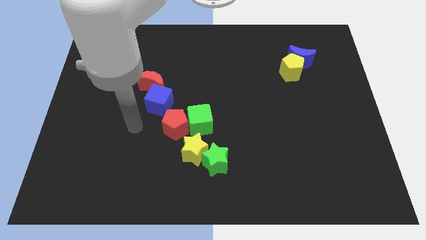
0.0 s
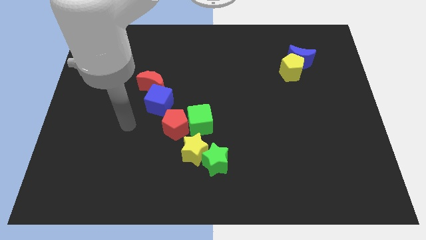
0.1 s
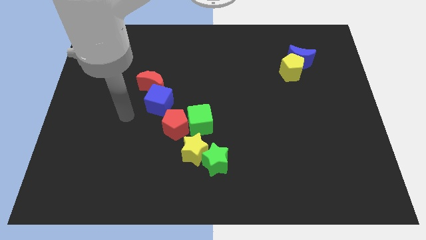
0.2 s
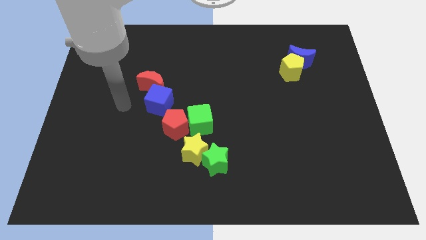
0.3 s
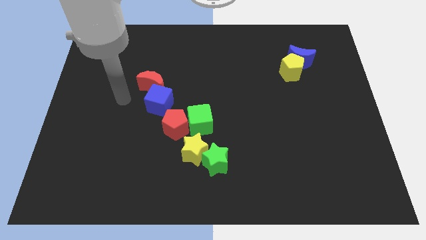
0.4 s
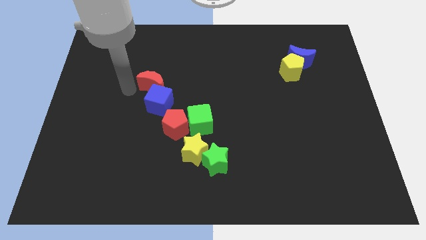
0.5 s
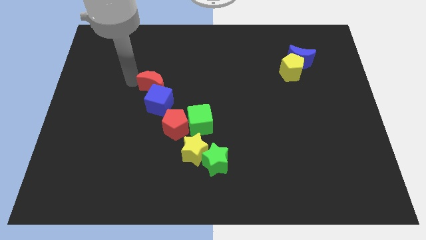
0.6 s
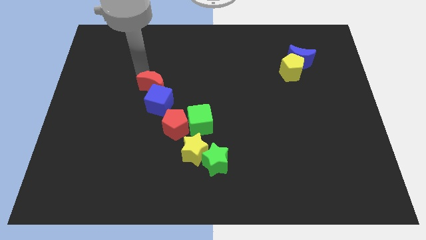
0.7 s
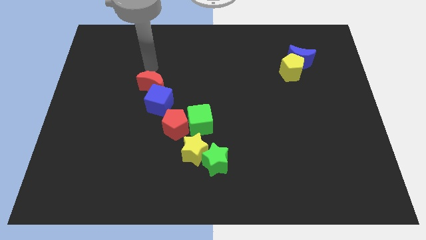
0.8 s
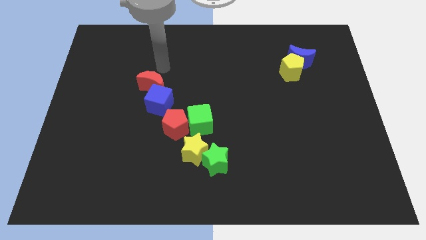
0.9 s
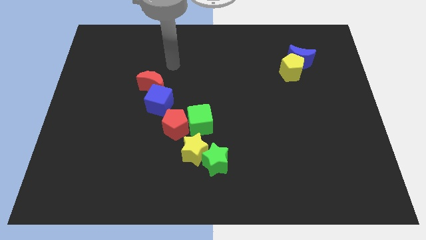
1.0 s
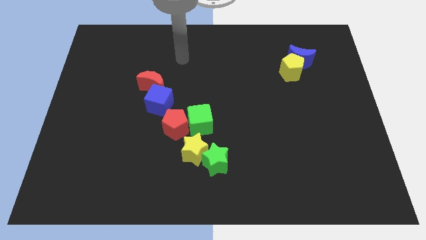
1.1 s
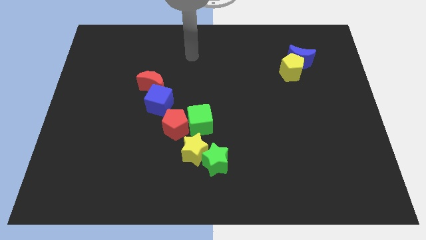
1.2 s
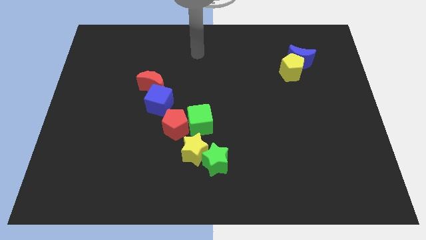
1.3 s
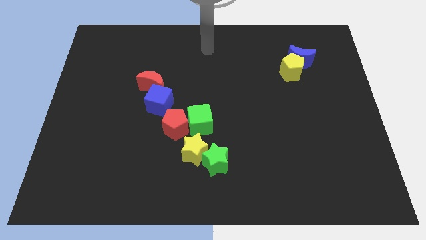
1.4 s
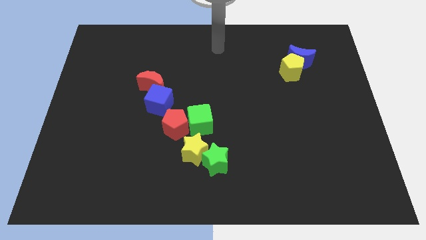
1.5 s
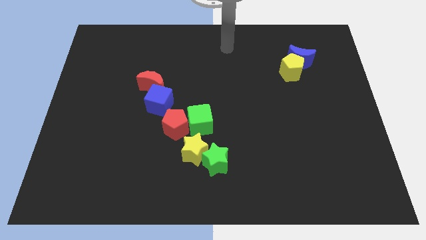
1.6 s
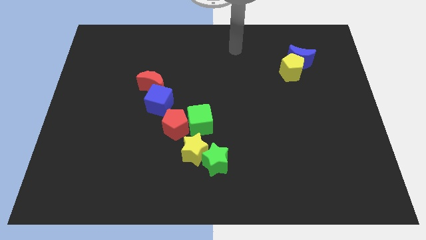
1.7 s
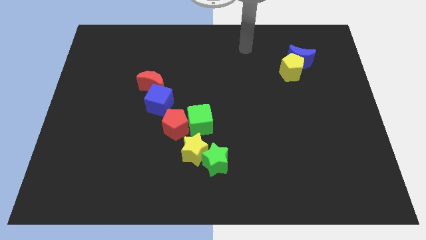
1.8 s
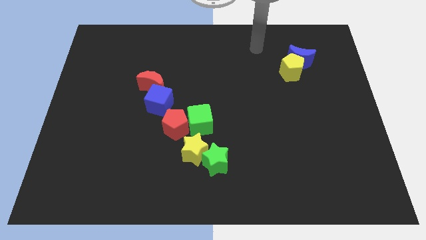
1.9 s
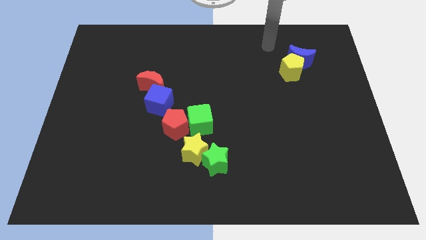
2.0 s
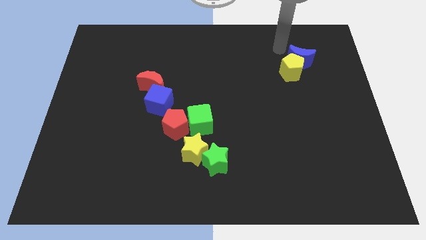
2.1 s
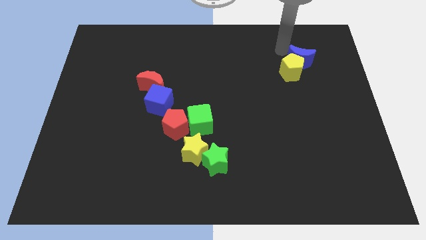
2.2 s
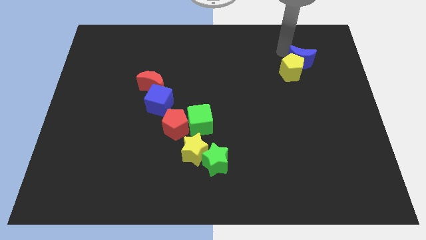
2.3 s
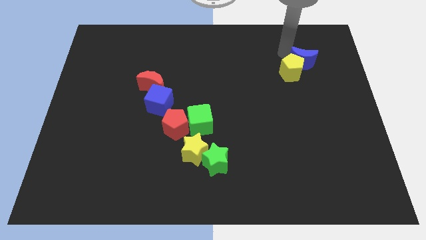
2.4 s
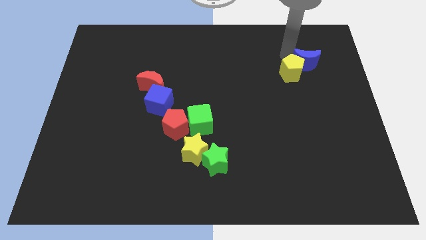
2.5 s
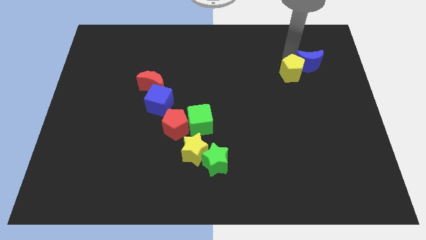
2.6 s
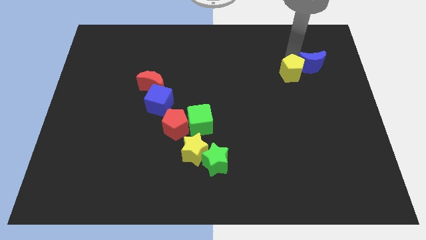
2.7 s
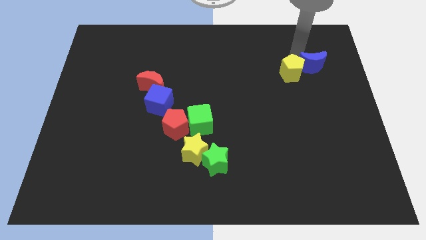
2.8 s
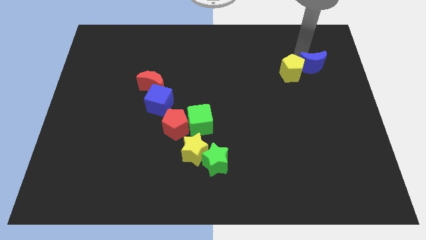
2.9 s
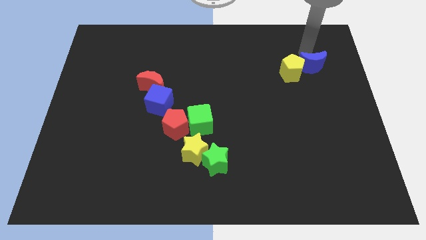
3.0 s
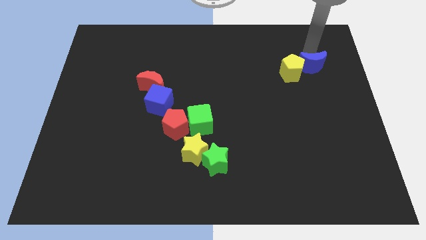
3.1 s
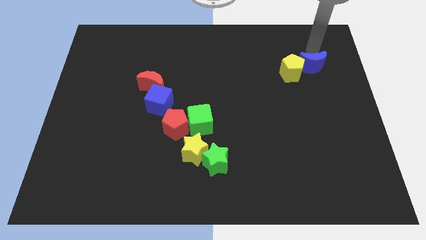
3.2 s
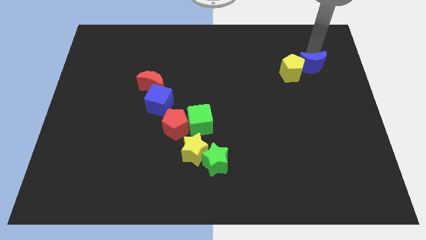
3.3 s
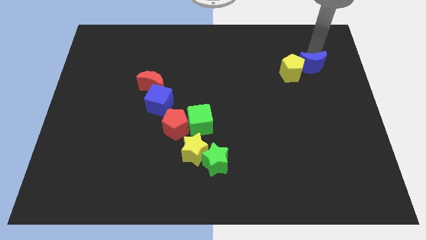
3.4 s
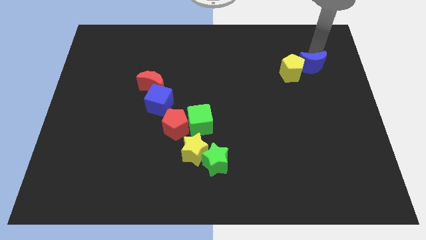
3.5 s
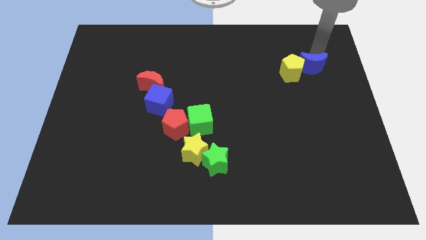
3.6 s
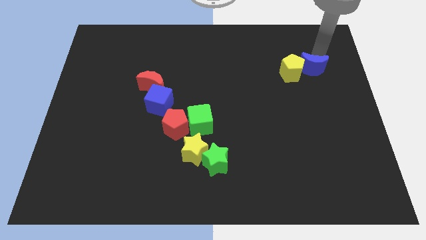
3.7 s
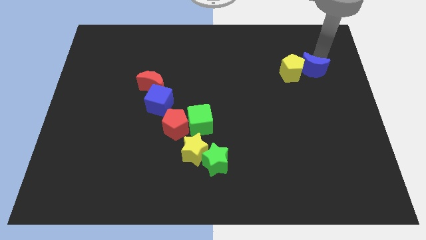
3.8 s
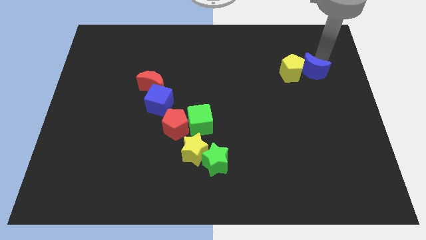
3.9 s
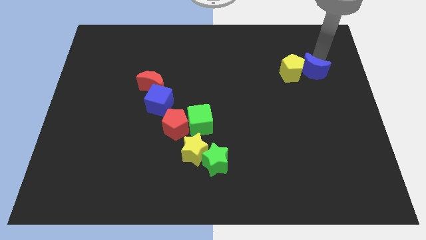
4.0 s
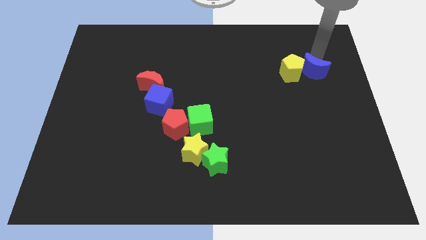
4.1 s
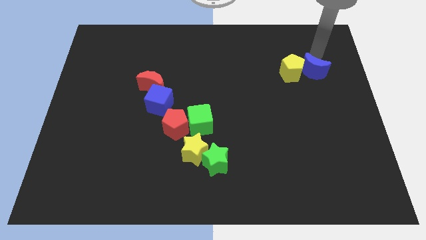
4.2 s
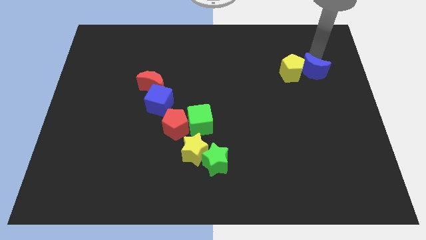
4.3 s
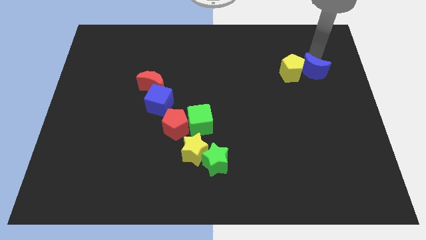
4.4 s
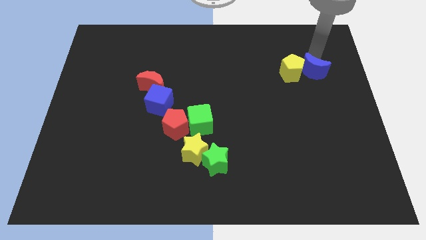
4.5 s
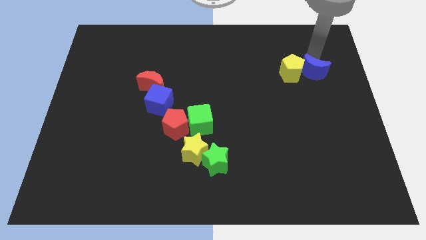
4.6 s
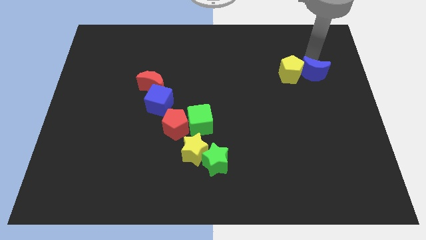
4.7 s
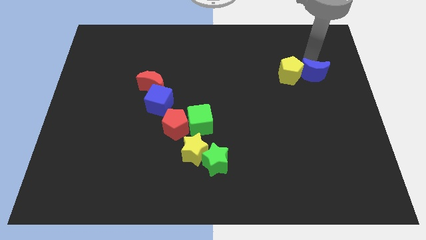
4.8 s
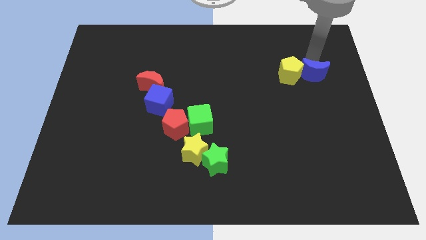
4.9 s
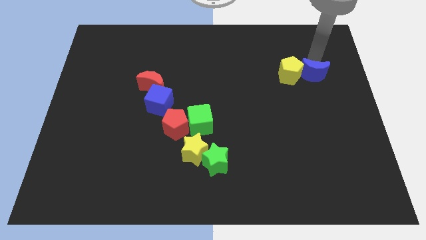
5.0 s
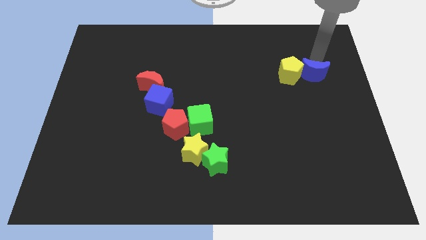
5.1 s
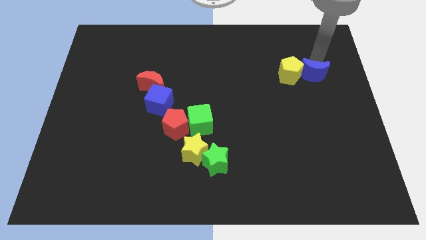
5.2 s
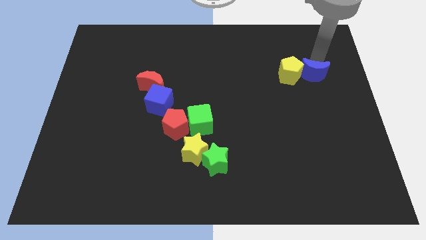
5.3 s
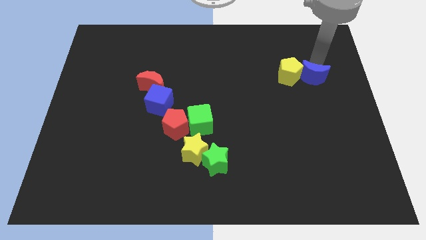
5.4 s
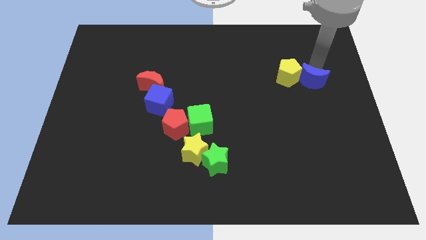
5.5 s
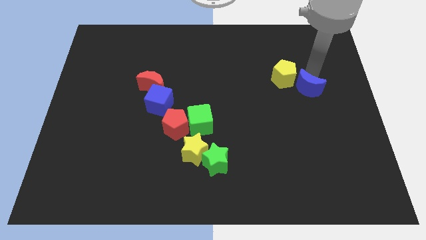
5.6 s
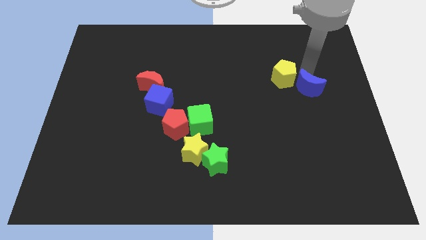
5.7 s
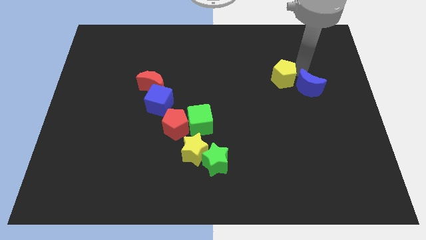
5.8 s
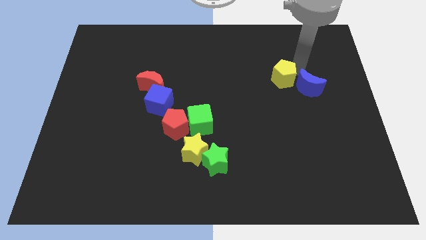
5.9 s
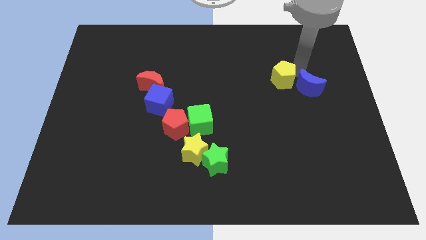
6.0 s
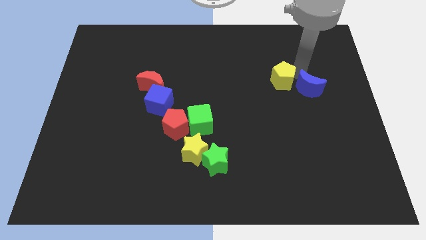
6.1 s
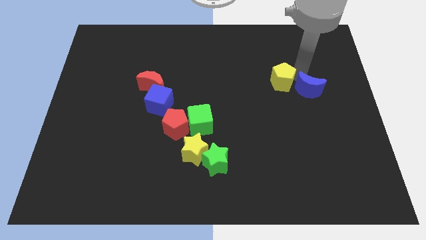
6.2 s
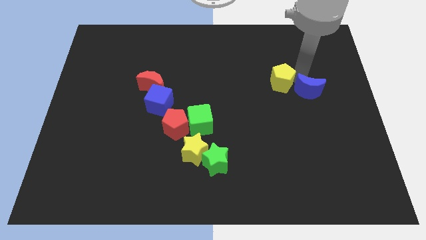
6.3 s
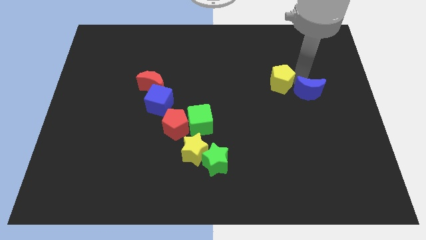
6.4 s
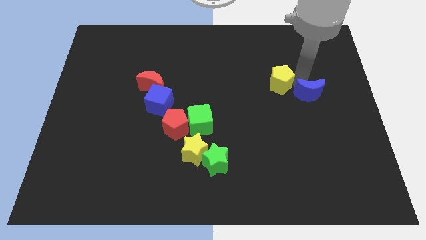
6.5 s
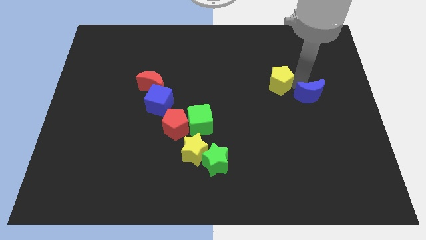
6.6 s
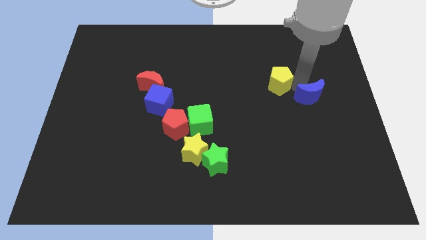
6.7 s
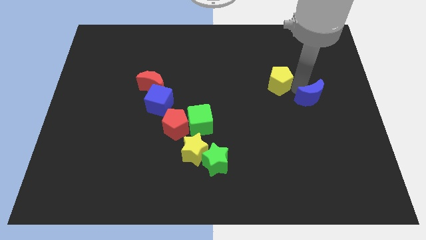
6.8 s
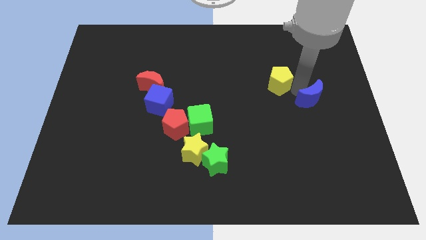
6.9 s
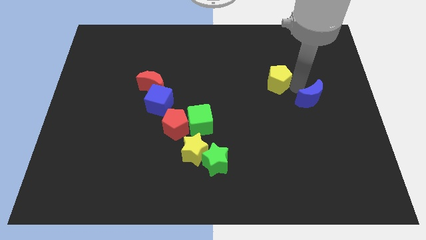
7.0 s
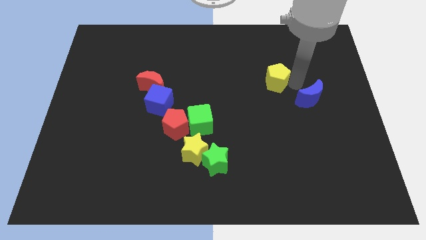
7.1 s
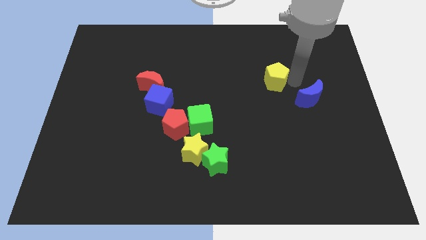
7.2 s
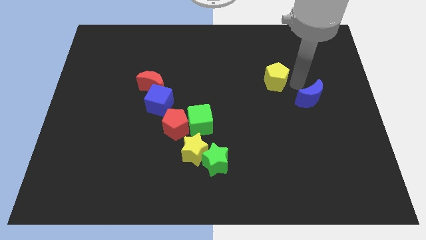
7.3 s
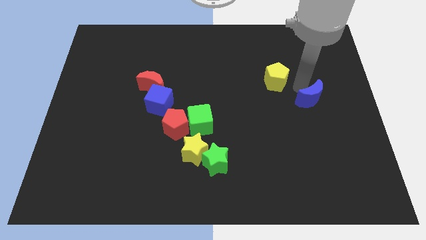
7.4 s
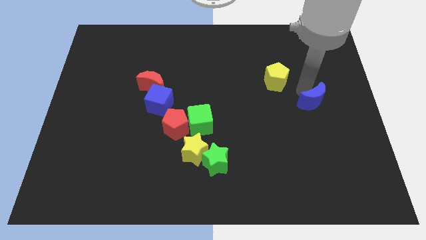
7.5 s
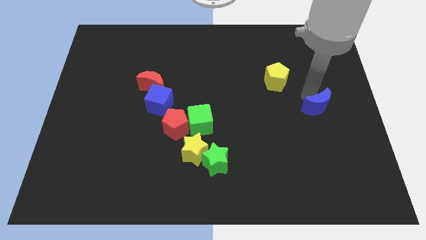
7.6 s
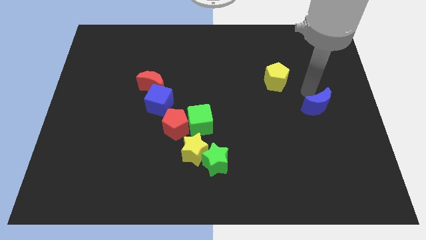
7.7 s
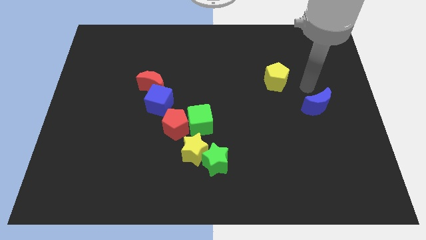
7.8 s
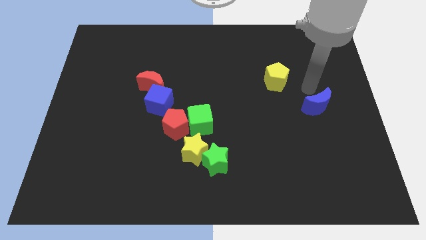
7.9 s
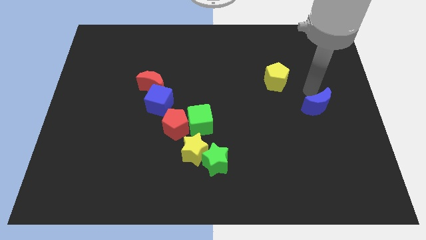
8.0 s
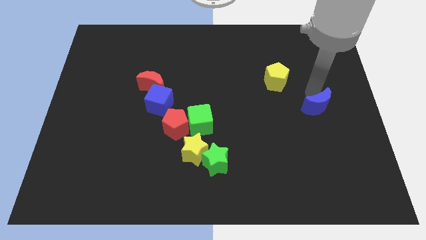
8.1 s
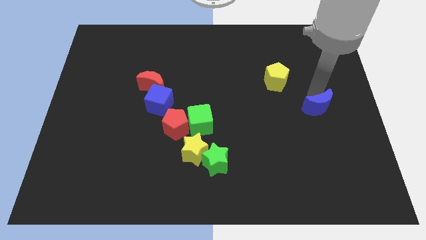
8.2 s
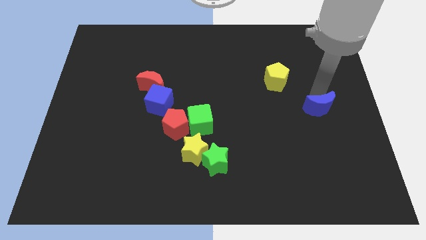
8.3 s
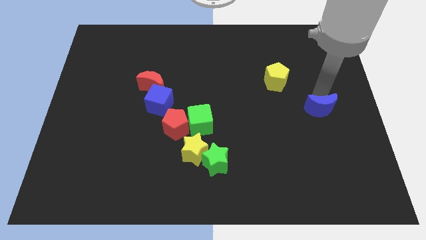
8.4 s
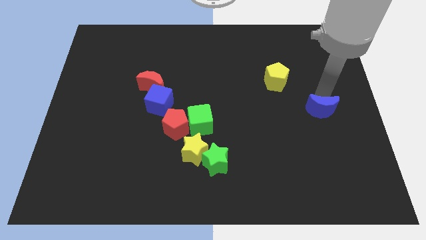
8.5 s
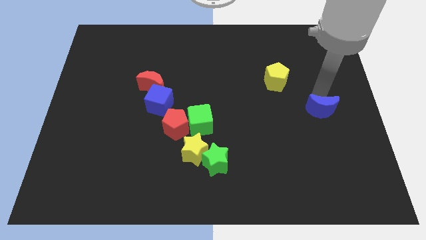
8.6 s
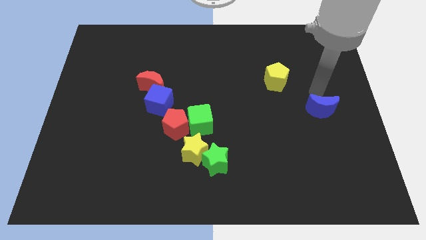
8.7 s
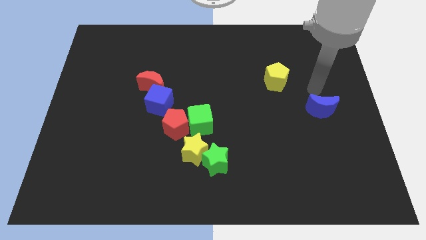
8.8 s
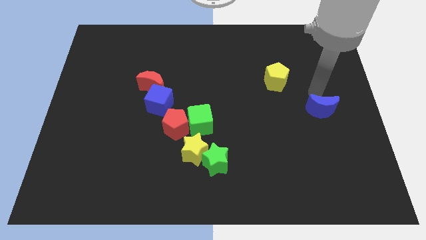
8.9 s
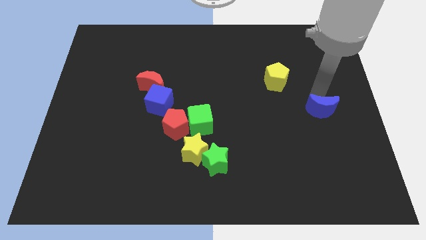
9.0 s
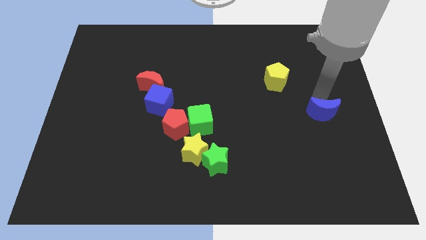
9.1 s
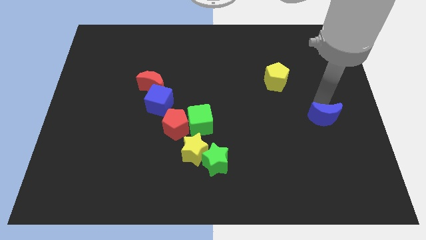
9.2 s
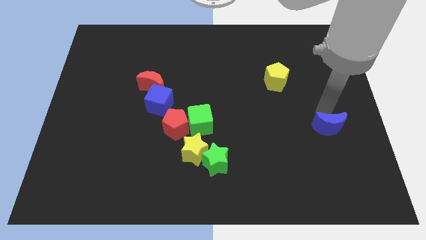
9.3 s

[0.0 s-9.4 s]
push the blue moon downwards
